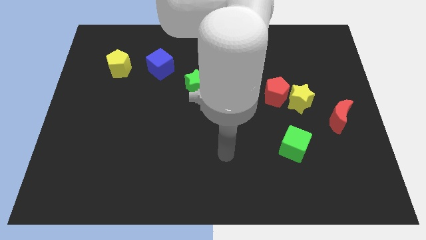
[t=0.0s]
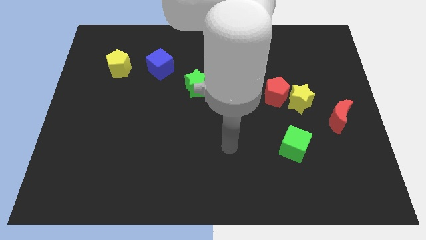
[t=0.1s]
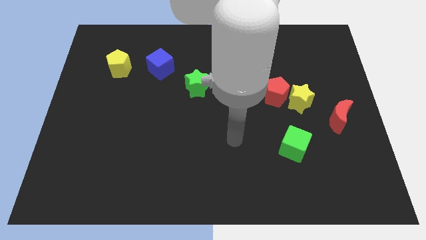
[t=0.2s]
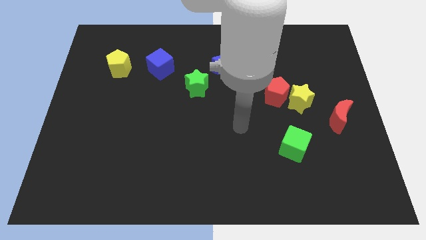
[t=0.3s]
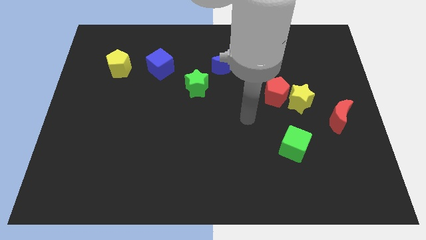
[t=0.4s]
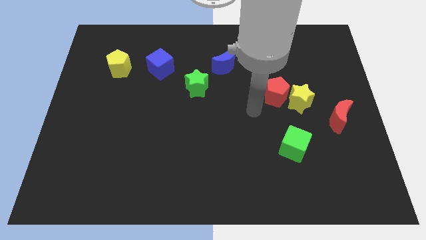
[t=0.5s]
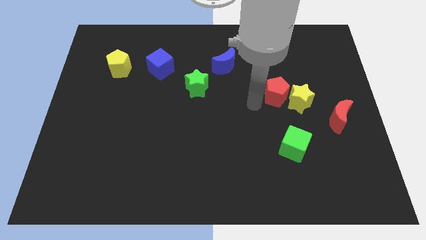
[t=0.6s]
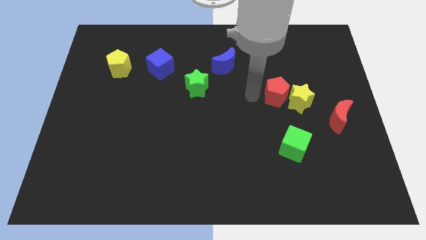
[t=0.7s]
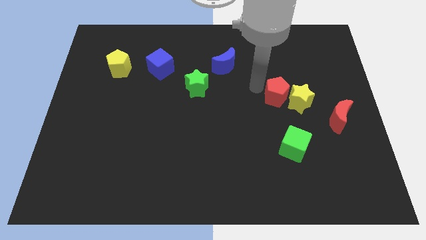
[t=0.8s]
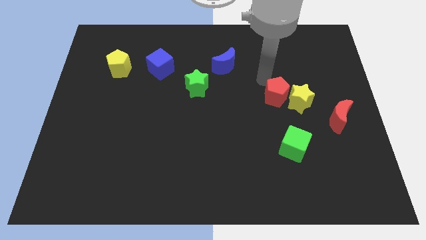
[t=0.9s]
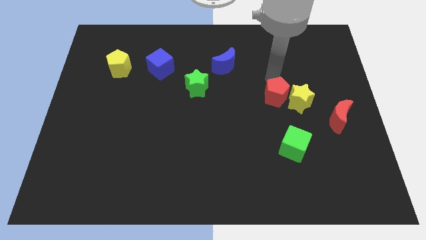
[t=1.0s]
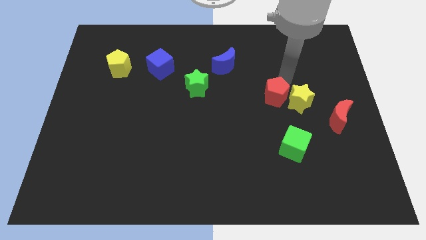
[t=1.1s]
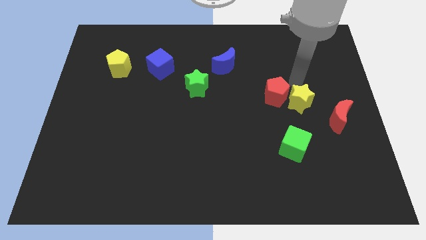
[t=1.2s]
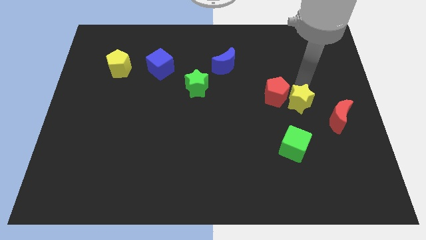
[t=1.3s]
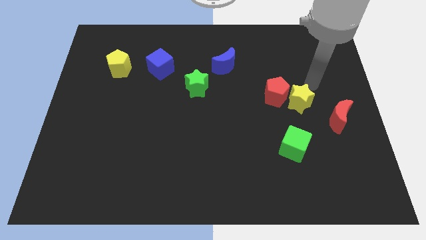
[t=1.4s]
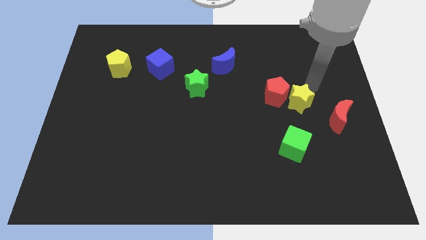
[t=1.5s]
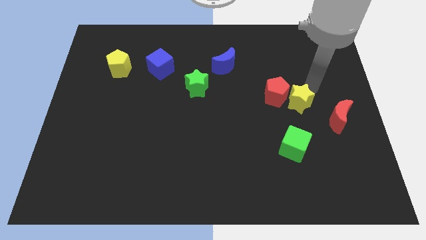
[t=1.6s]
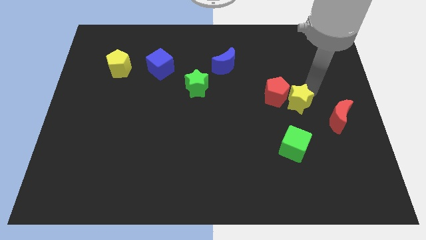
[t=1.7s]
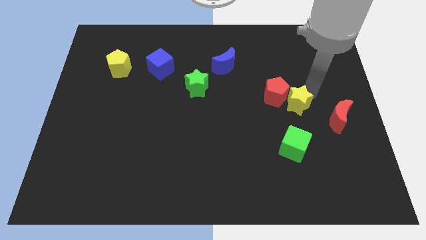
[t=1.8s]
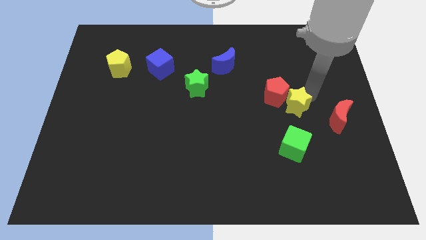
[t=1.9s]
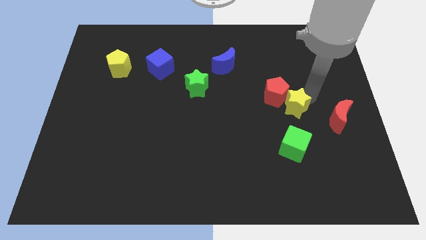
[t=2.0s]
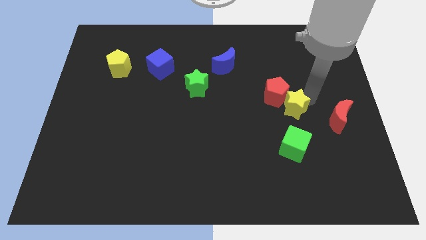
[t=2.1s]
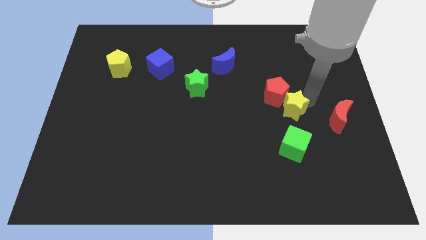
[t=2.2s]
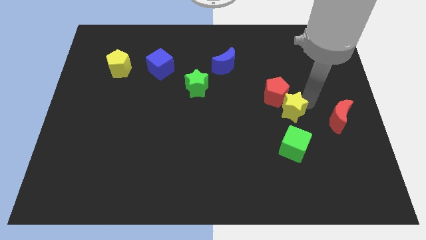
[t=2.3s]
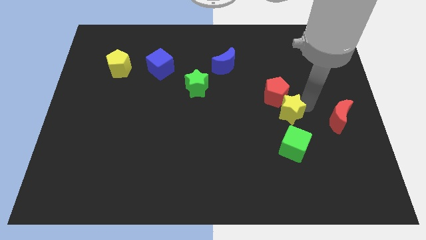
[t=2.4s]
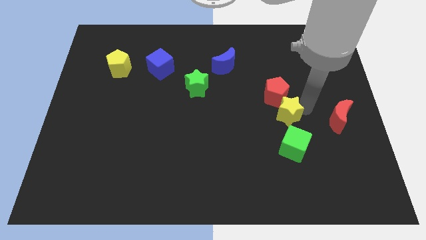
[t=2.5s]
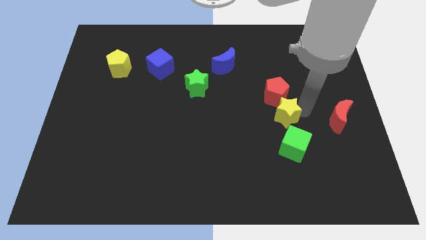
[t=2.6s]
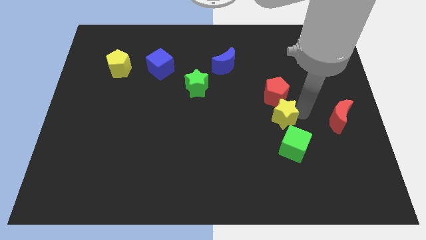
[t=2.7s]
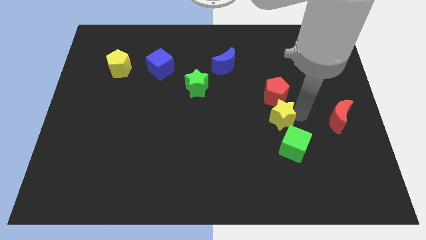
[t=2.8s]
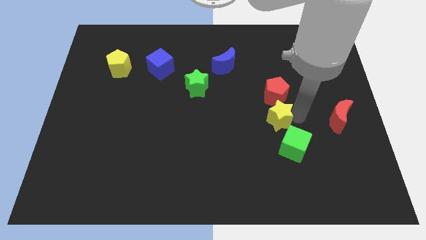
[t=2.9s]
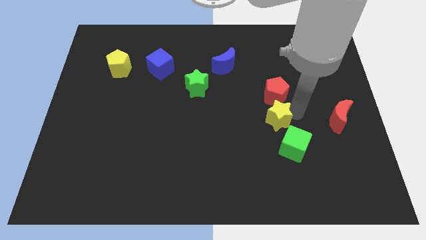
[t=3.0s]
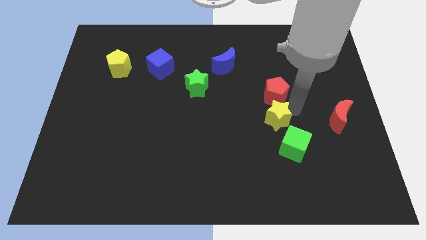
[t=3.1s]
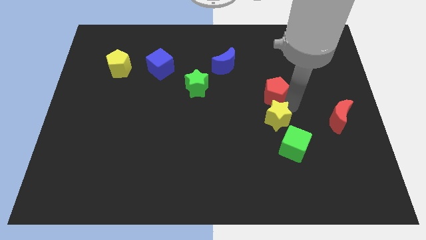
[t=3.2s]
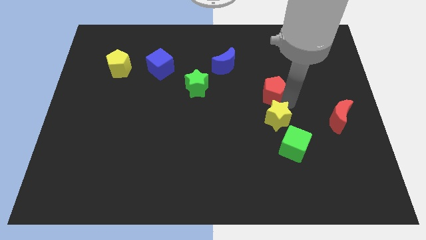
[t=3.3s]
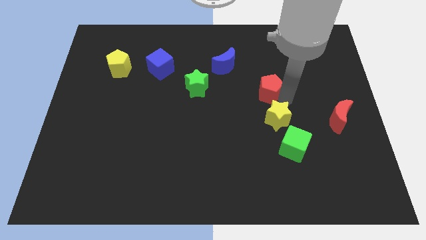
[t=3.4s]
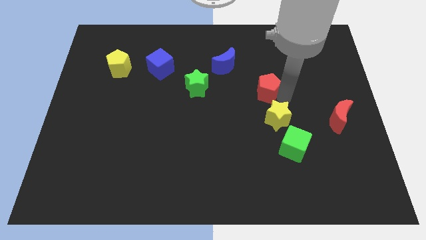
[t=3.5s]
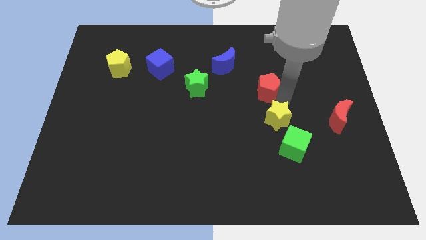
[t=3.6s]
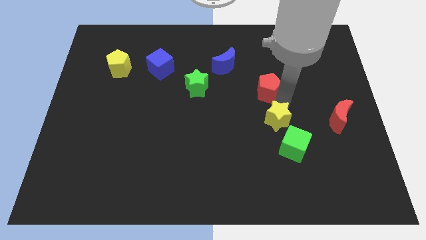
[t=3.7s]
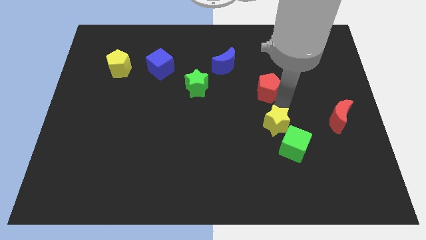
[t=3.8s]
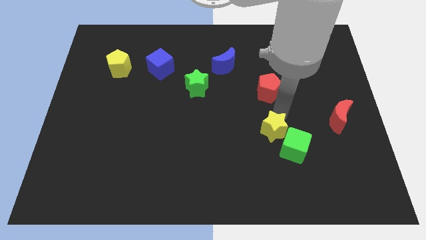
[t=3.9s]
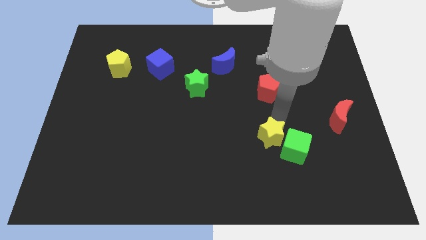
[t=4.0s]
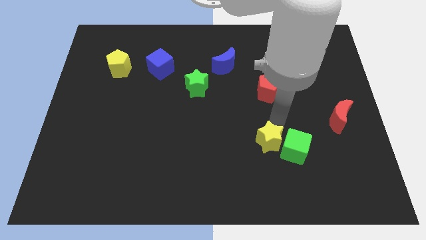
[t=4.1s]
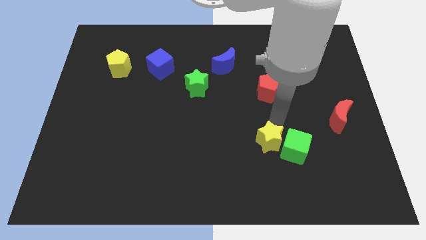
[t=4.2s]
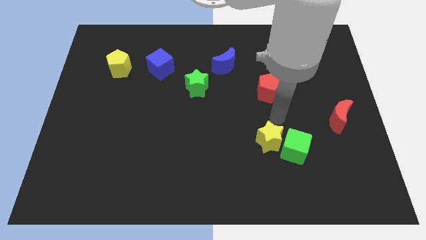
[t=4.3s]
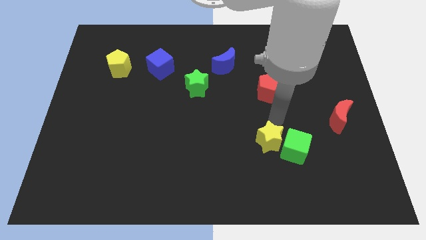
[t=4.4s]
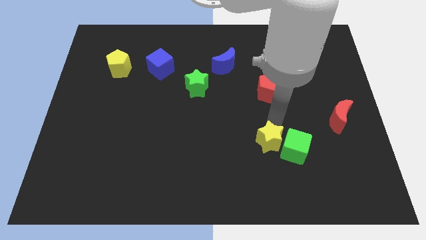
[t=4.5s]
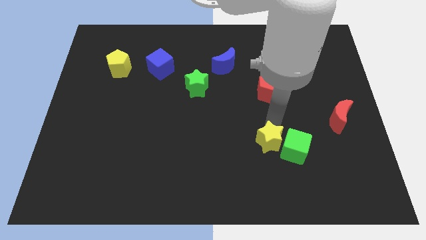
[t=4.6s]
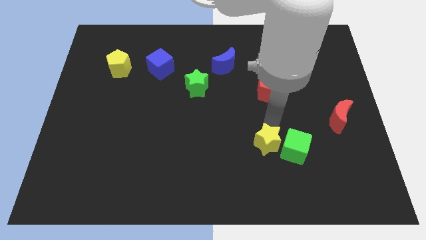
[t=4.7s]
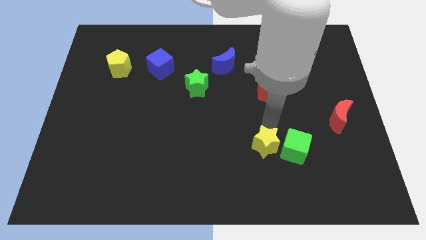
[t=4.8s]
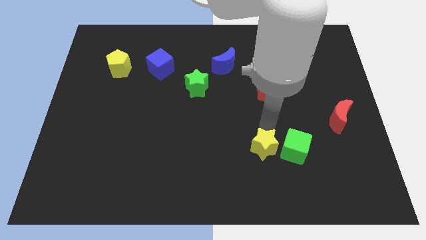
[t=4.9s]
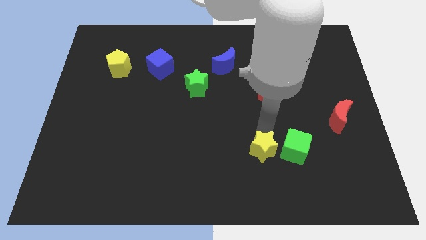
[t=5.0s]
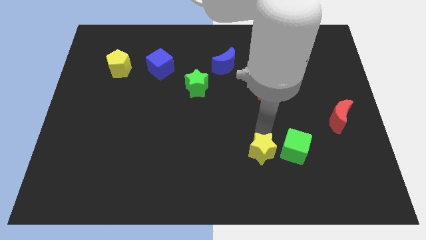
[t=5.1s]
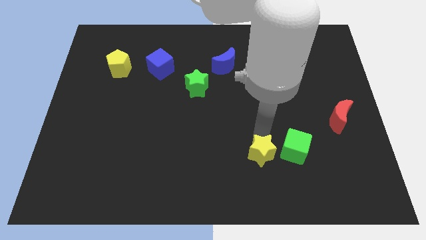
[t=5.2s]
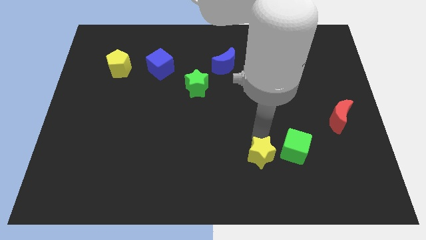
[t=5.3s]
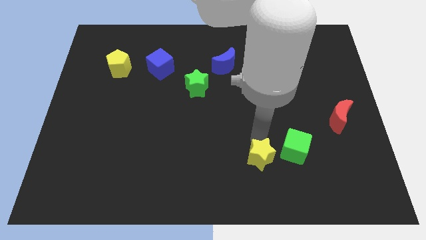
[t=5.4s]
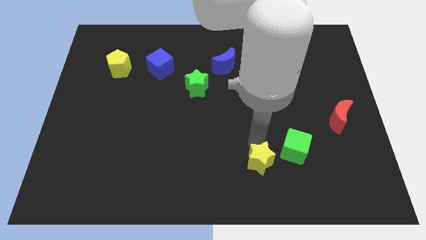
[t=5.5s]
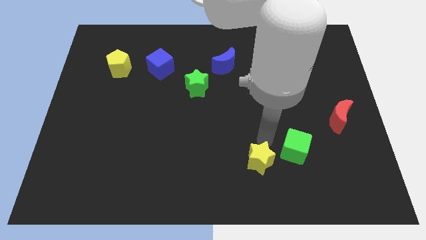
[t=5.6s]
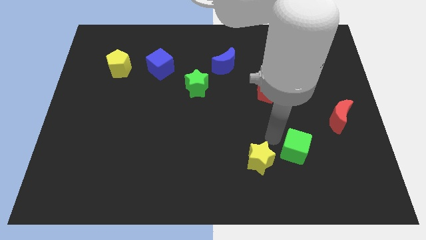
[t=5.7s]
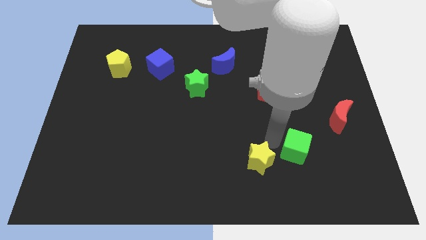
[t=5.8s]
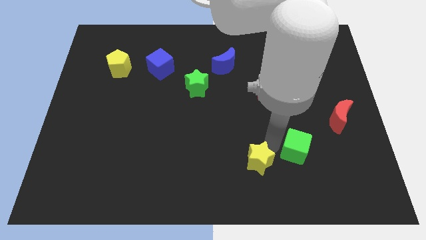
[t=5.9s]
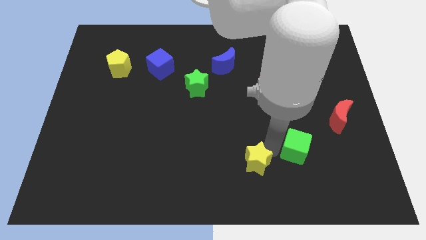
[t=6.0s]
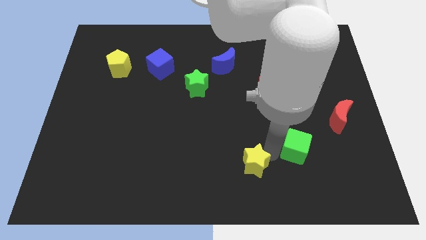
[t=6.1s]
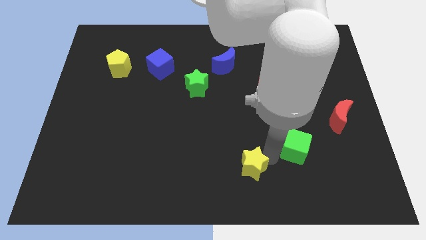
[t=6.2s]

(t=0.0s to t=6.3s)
put the yellow star to the bottom

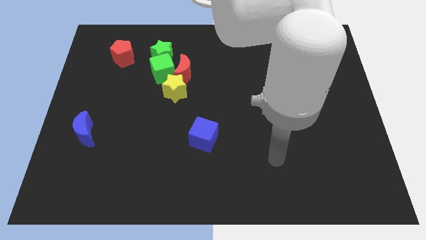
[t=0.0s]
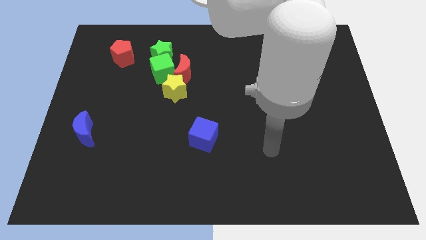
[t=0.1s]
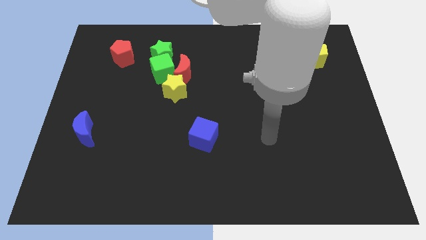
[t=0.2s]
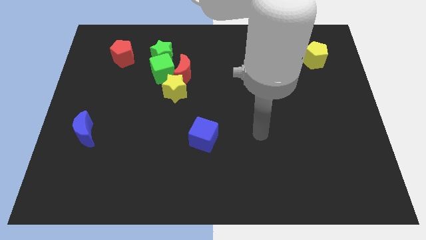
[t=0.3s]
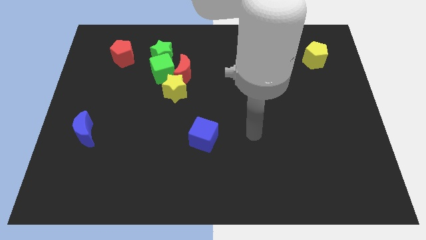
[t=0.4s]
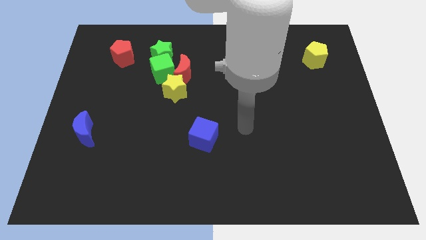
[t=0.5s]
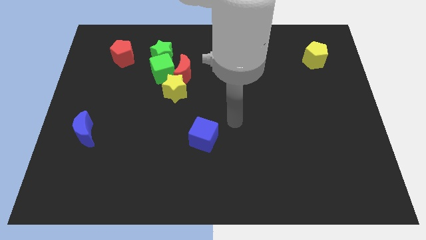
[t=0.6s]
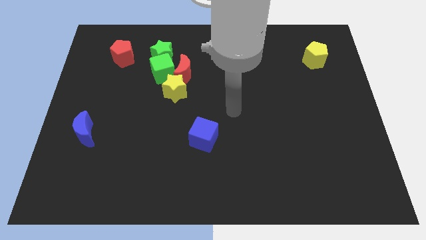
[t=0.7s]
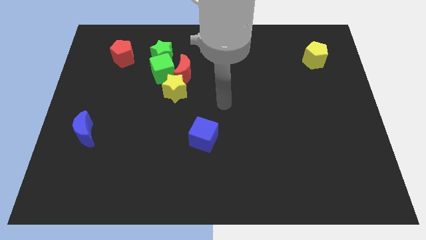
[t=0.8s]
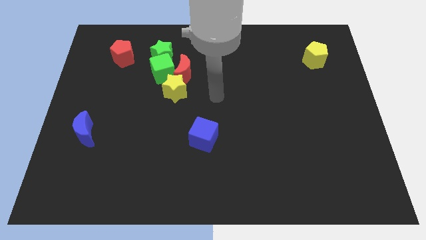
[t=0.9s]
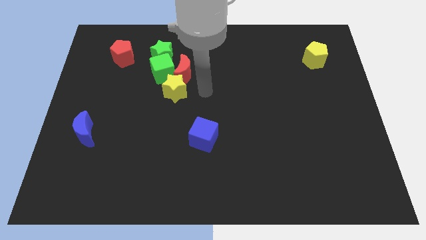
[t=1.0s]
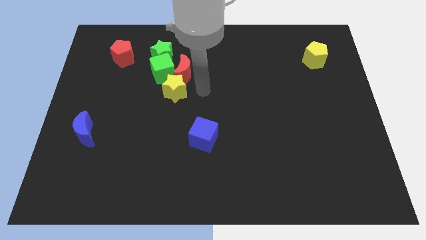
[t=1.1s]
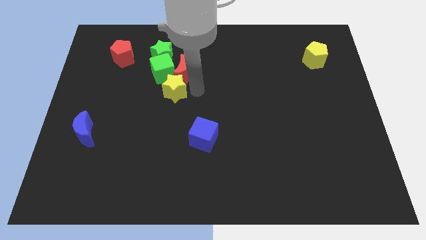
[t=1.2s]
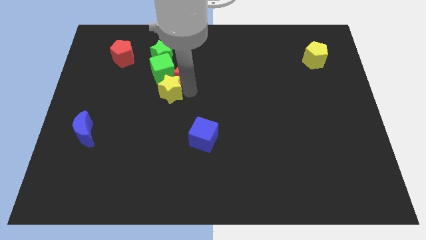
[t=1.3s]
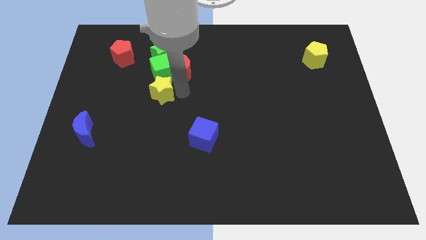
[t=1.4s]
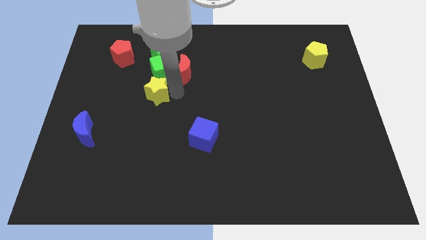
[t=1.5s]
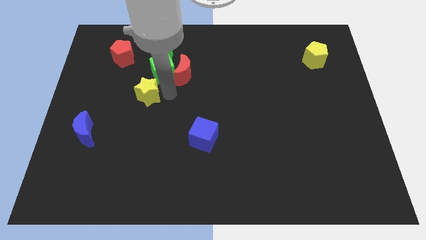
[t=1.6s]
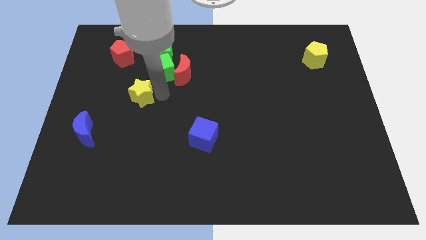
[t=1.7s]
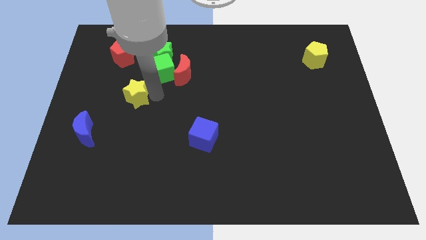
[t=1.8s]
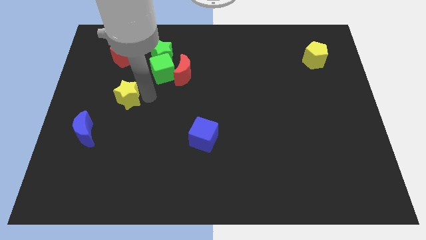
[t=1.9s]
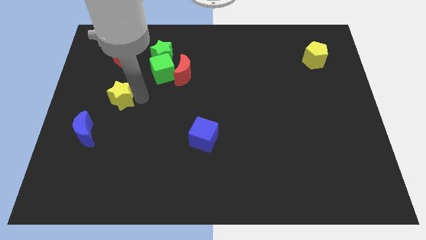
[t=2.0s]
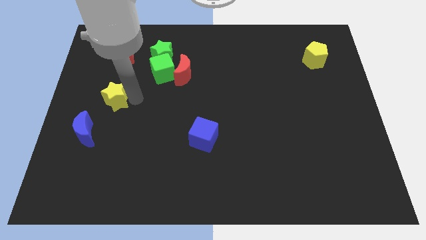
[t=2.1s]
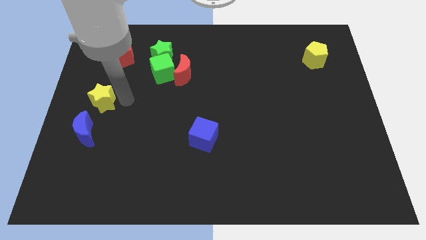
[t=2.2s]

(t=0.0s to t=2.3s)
push the yellow star to the left side of the board
